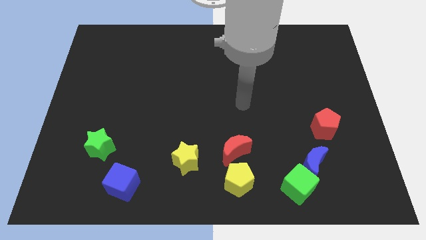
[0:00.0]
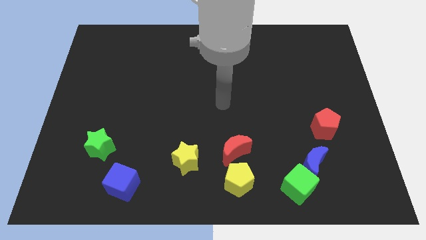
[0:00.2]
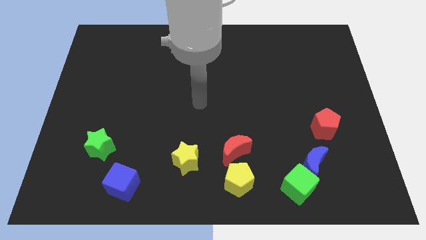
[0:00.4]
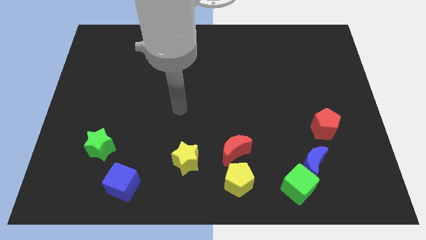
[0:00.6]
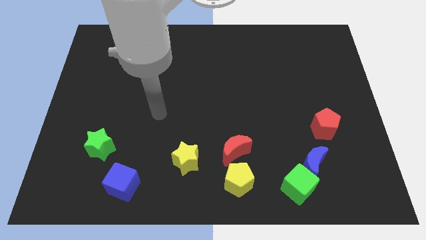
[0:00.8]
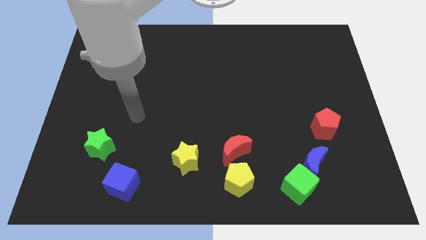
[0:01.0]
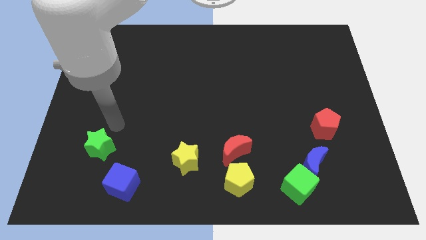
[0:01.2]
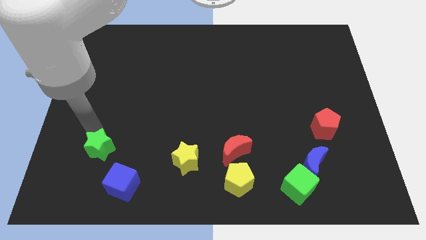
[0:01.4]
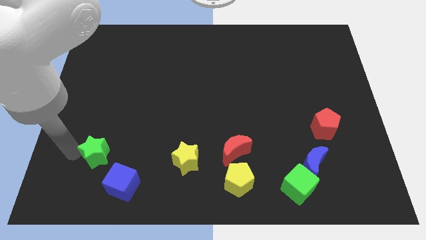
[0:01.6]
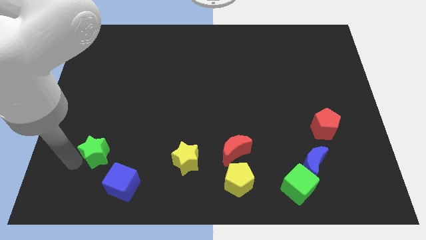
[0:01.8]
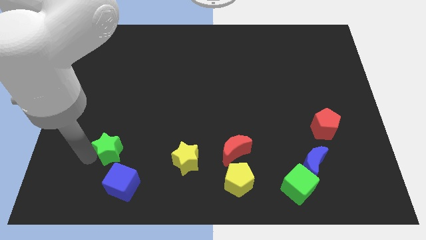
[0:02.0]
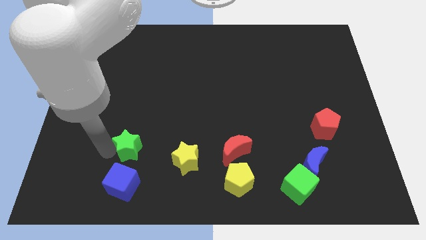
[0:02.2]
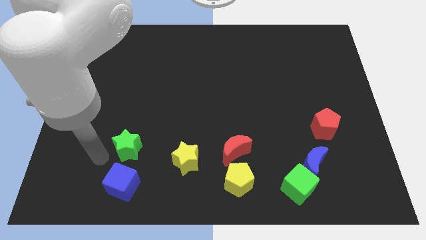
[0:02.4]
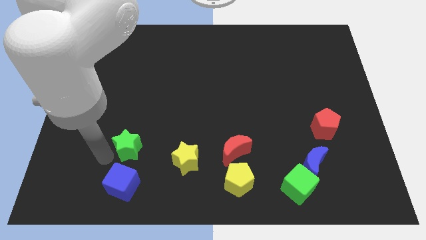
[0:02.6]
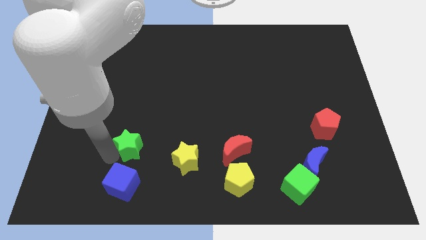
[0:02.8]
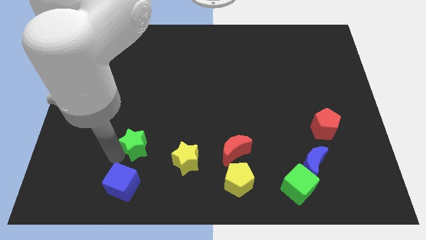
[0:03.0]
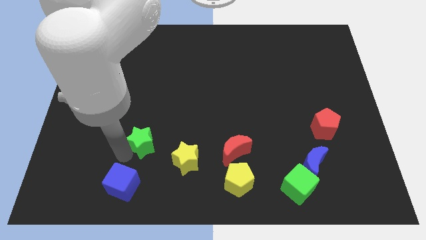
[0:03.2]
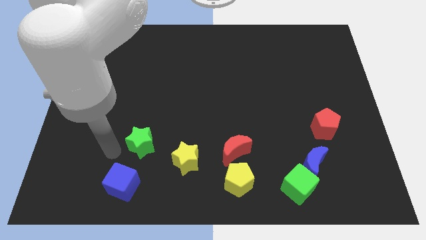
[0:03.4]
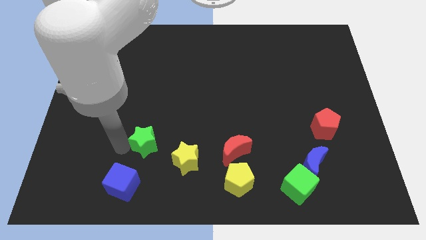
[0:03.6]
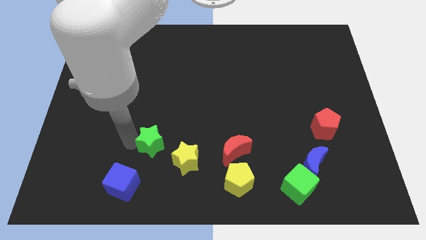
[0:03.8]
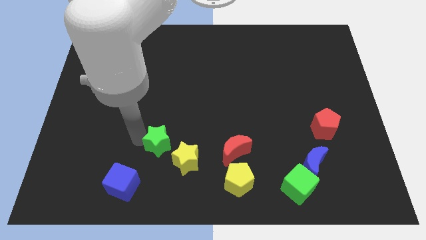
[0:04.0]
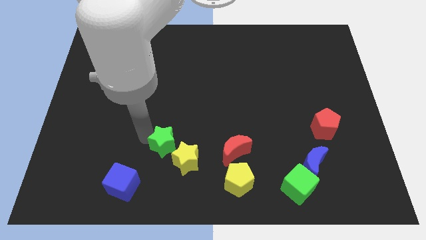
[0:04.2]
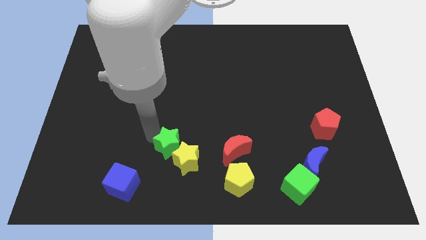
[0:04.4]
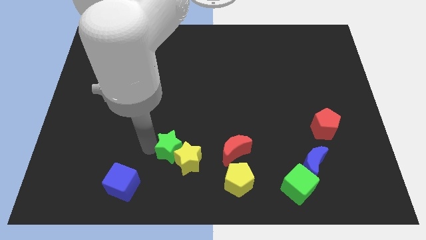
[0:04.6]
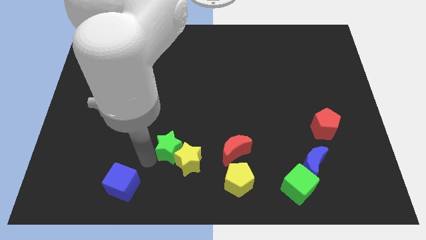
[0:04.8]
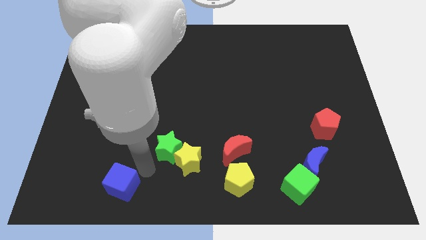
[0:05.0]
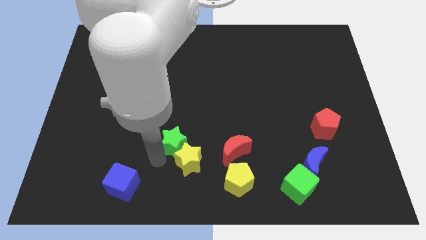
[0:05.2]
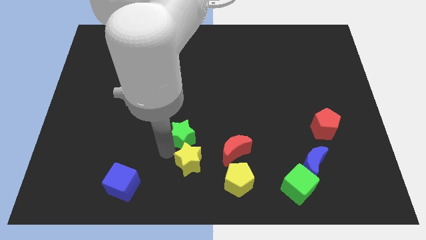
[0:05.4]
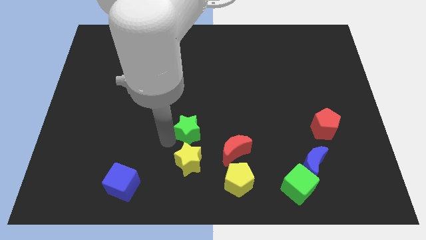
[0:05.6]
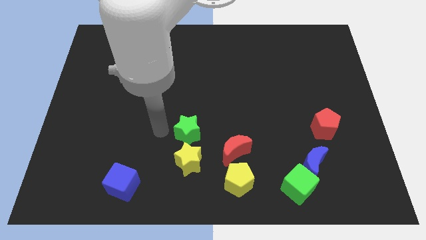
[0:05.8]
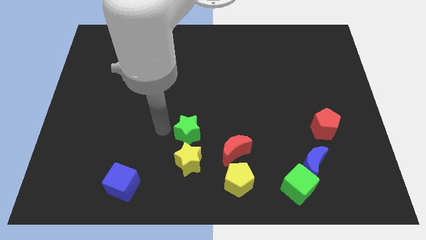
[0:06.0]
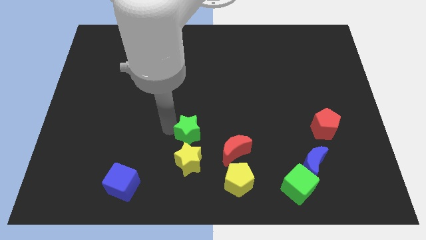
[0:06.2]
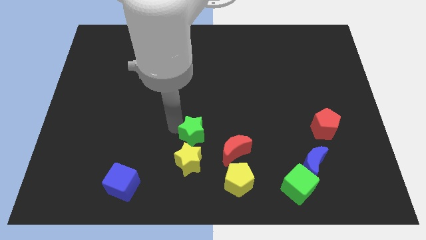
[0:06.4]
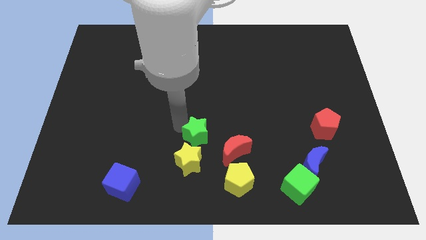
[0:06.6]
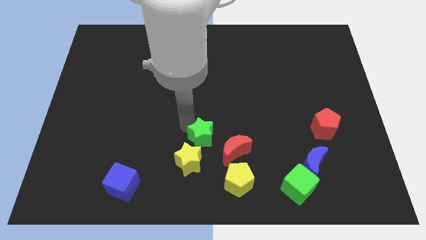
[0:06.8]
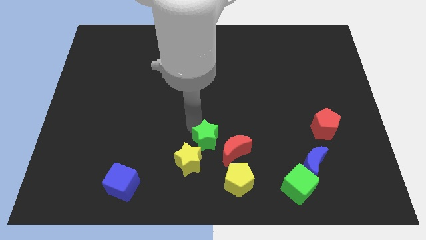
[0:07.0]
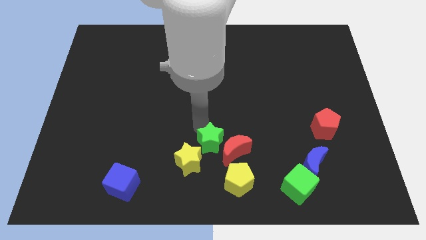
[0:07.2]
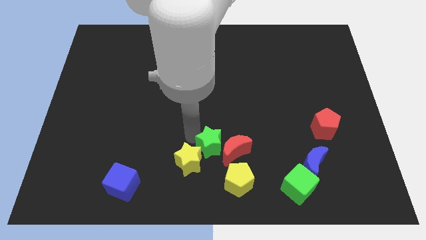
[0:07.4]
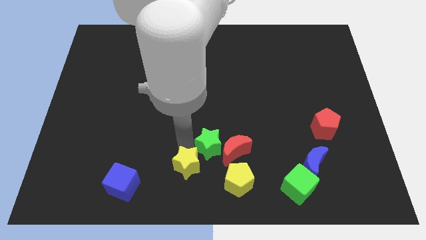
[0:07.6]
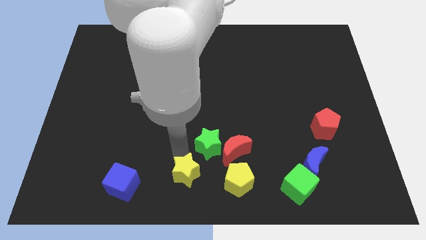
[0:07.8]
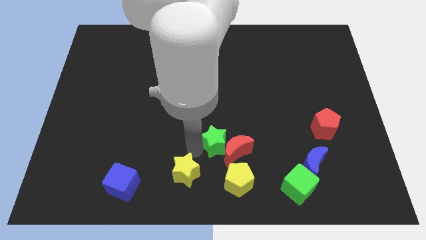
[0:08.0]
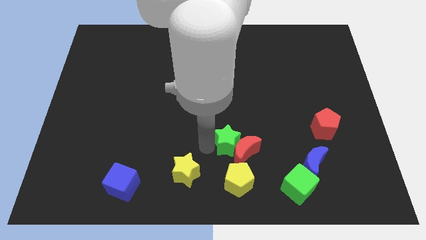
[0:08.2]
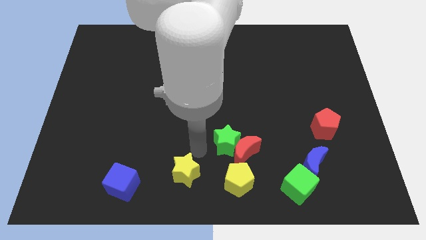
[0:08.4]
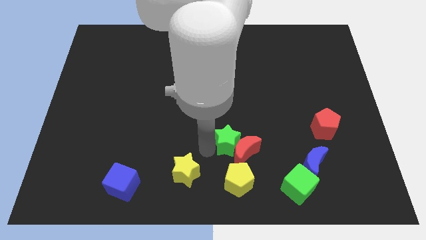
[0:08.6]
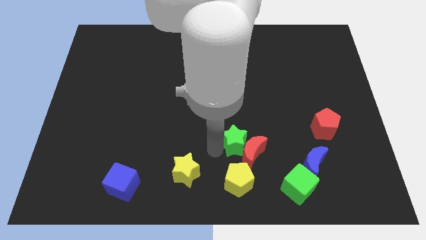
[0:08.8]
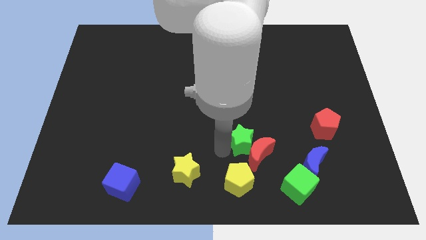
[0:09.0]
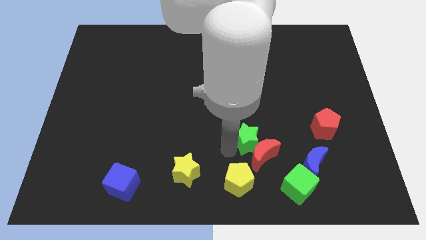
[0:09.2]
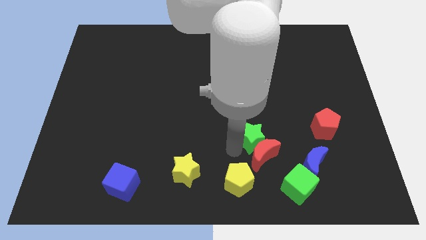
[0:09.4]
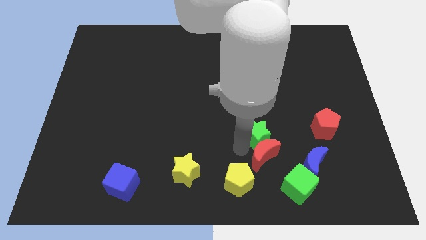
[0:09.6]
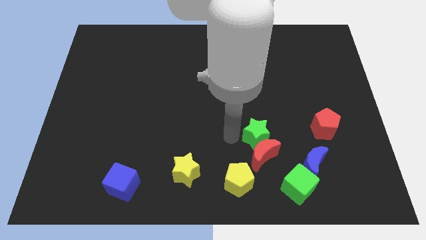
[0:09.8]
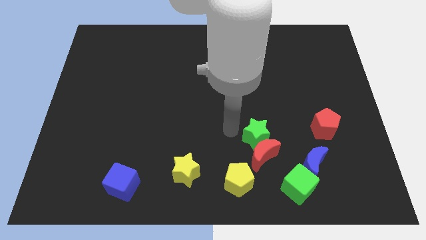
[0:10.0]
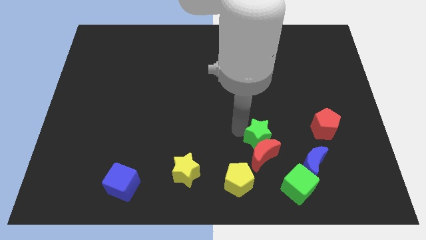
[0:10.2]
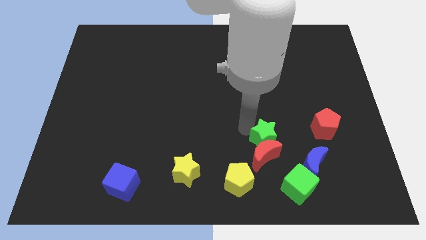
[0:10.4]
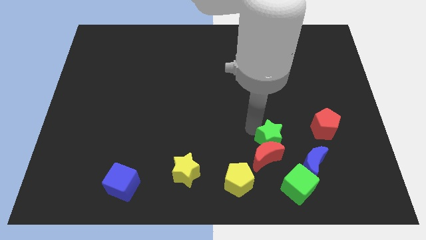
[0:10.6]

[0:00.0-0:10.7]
slide the green star to the top side of the green cube

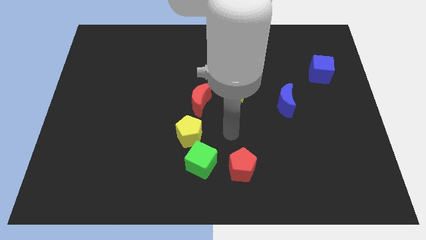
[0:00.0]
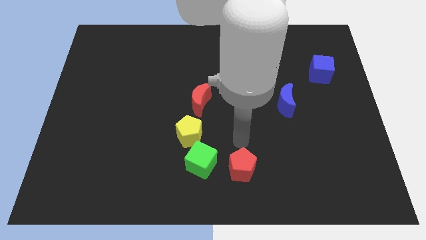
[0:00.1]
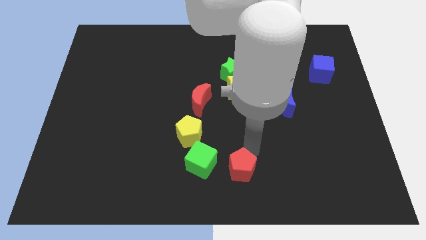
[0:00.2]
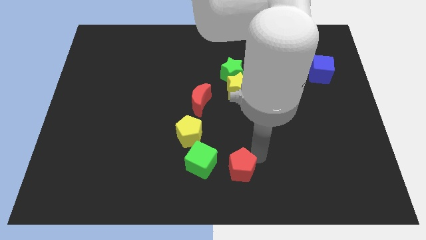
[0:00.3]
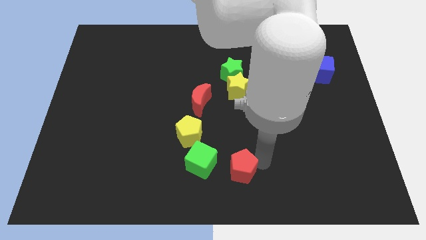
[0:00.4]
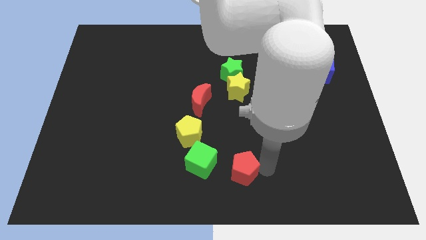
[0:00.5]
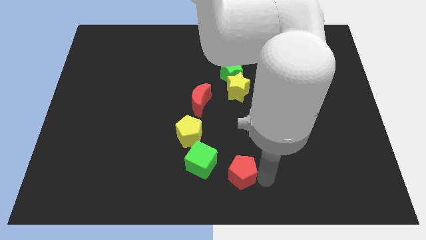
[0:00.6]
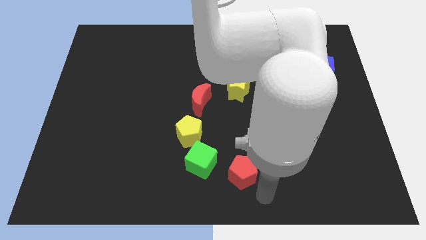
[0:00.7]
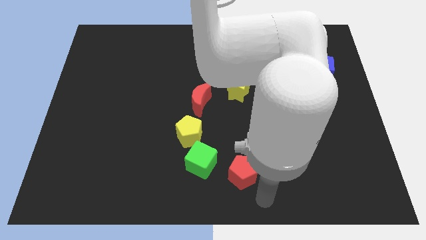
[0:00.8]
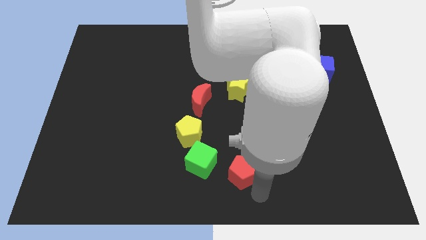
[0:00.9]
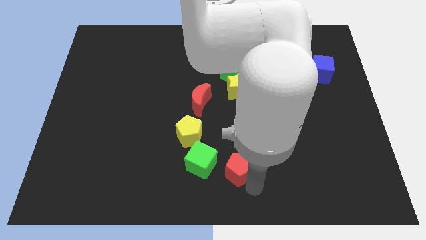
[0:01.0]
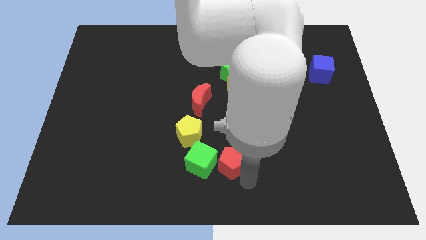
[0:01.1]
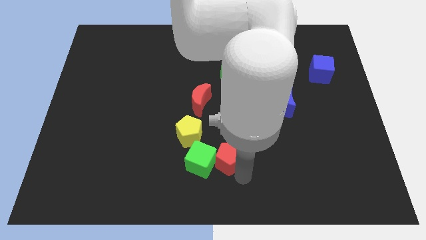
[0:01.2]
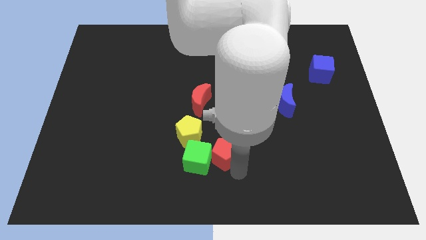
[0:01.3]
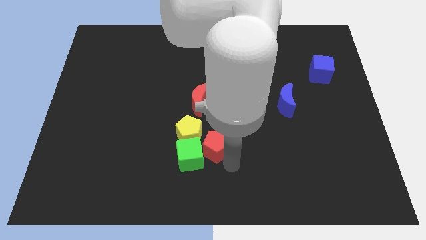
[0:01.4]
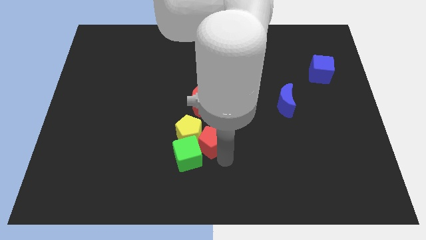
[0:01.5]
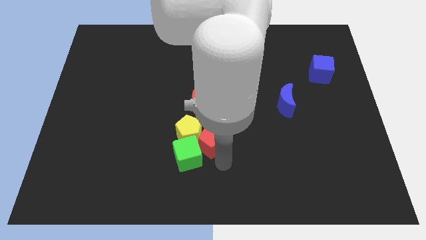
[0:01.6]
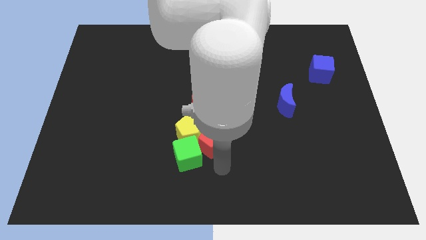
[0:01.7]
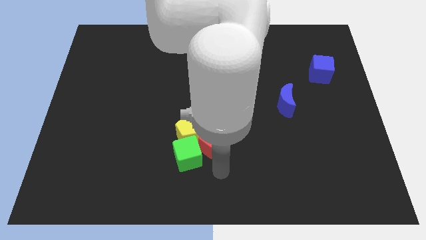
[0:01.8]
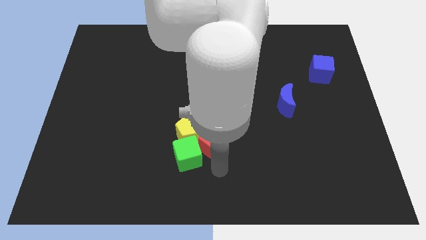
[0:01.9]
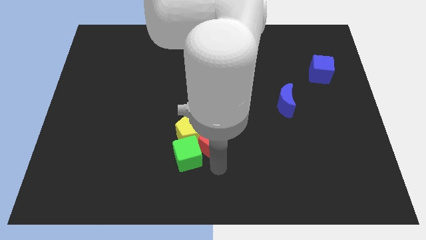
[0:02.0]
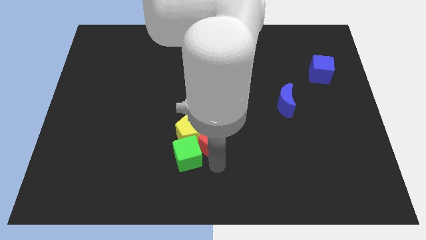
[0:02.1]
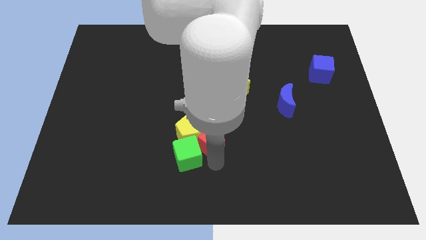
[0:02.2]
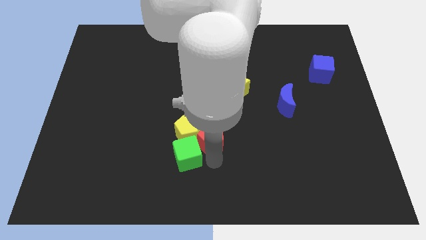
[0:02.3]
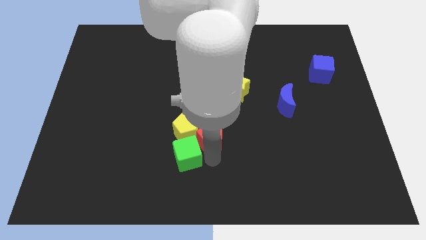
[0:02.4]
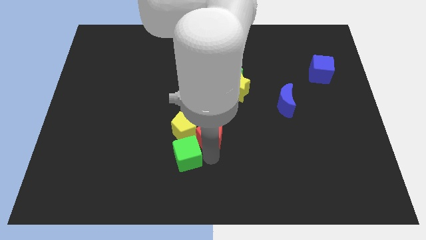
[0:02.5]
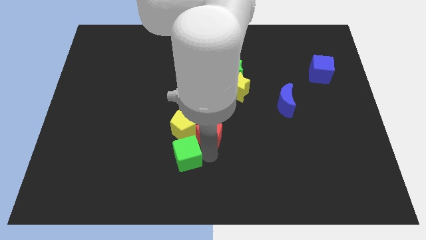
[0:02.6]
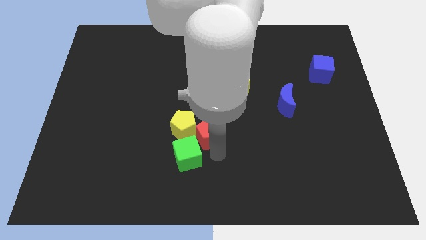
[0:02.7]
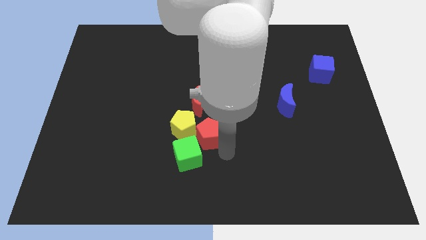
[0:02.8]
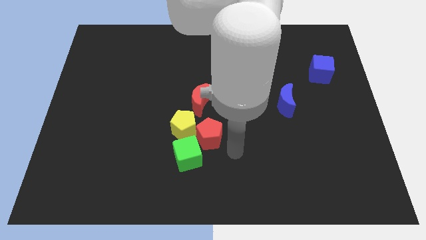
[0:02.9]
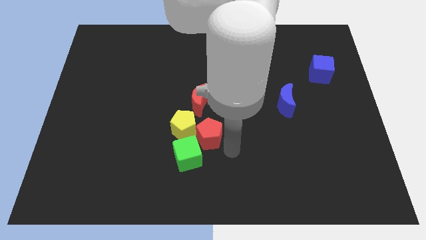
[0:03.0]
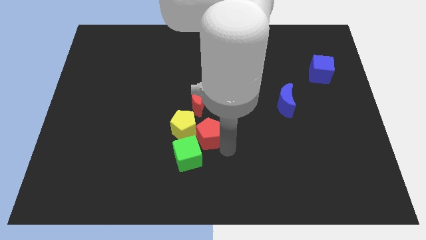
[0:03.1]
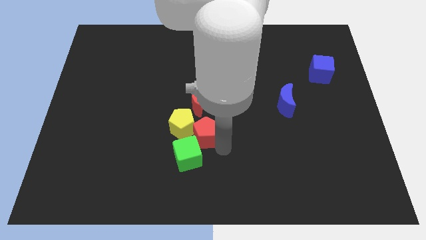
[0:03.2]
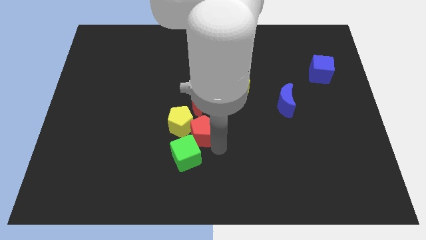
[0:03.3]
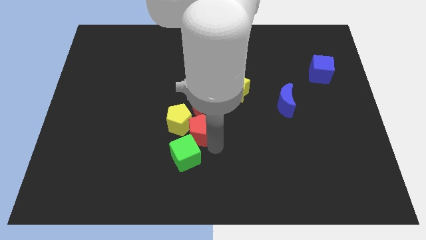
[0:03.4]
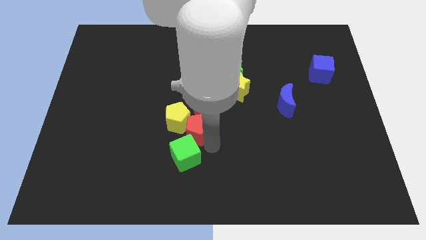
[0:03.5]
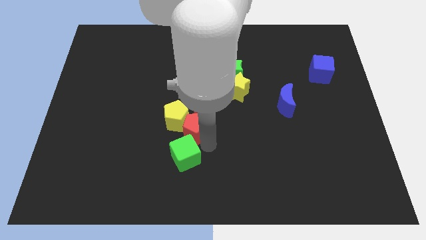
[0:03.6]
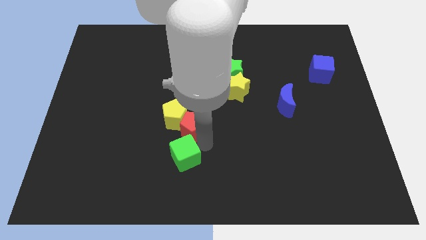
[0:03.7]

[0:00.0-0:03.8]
move the red pentagon to the bottom left side of the red moon
